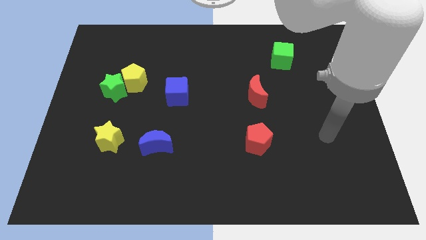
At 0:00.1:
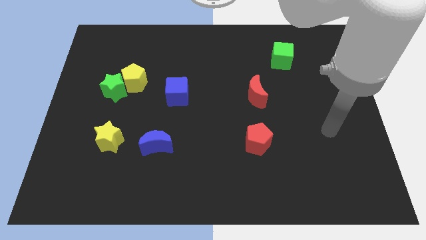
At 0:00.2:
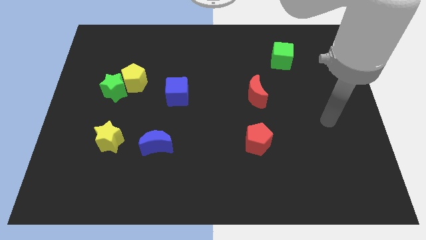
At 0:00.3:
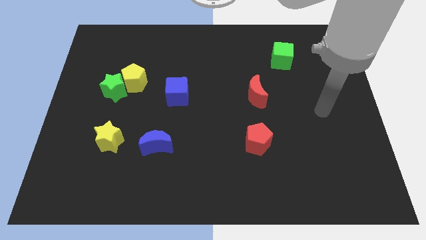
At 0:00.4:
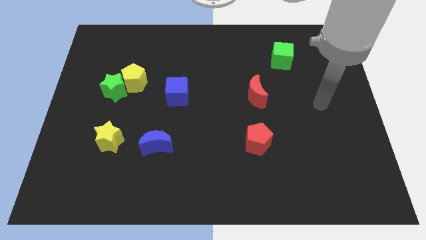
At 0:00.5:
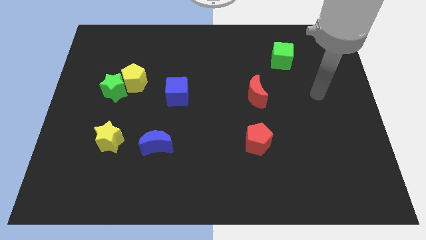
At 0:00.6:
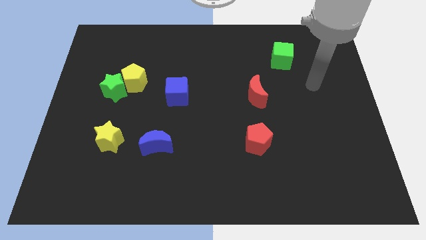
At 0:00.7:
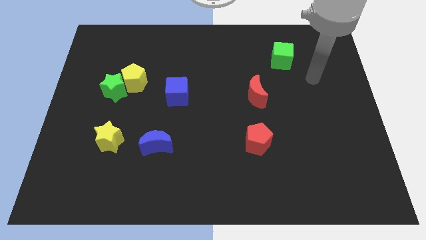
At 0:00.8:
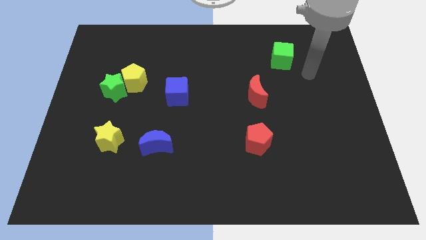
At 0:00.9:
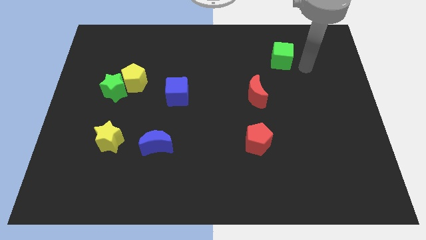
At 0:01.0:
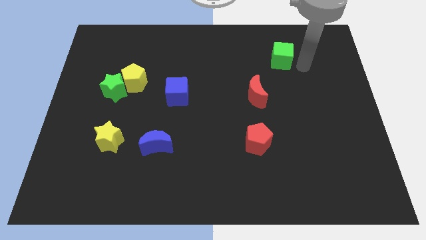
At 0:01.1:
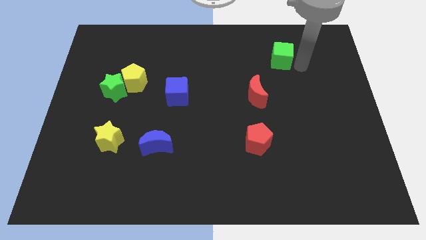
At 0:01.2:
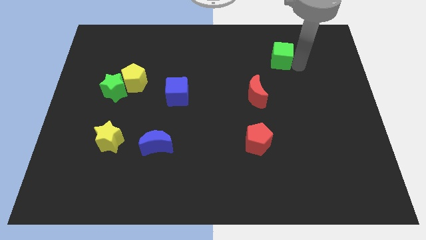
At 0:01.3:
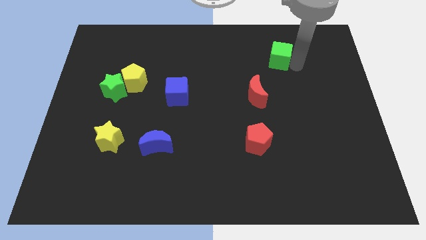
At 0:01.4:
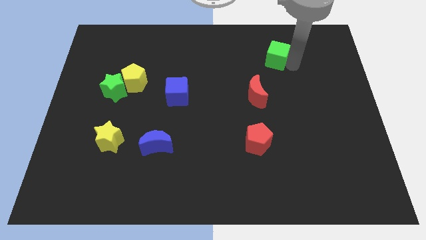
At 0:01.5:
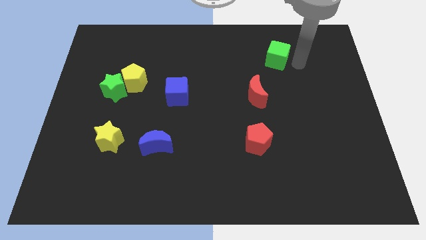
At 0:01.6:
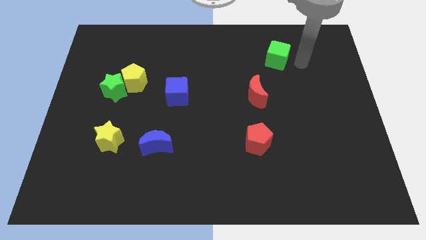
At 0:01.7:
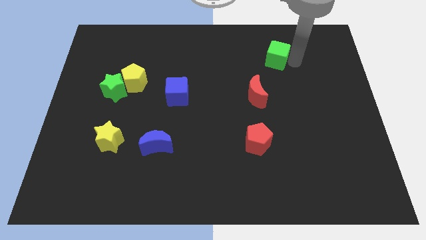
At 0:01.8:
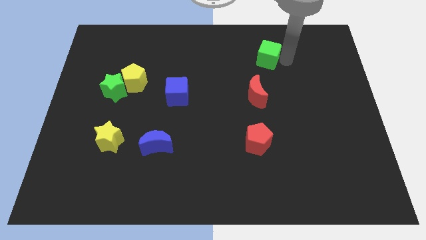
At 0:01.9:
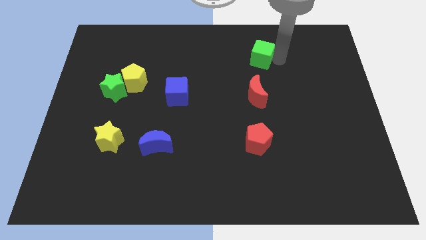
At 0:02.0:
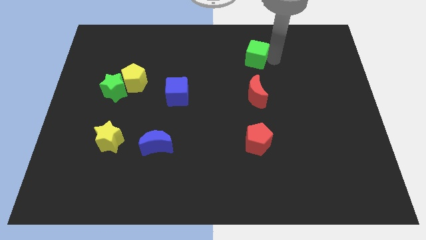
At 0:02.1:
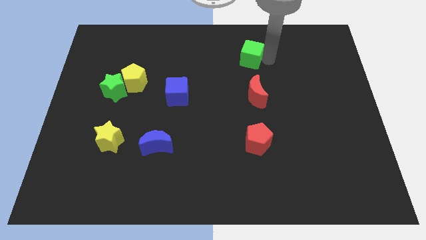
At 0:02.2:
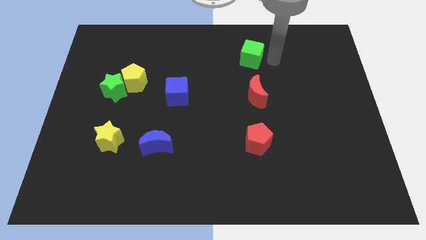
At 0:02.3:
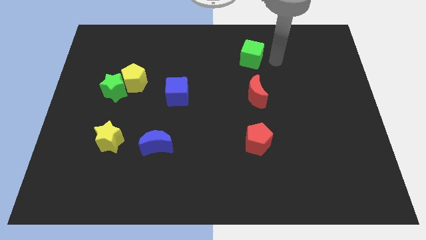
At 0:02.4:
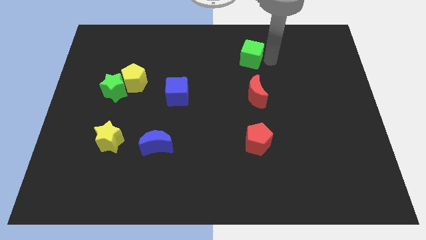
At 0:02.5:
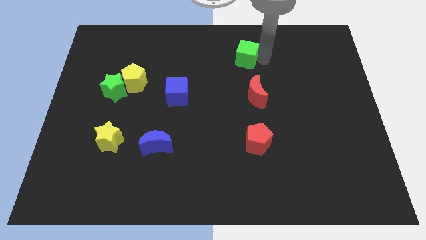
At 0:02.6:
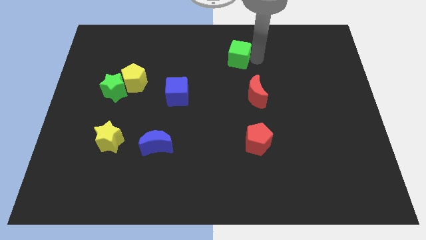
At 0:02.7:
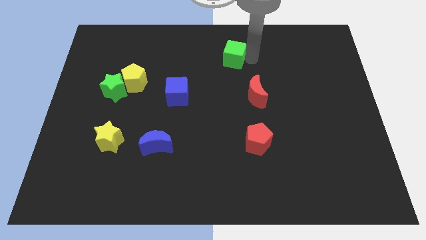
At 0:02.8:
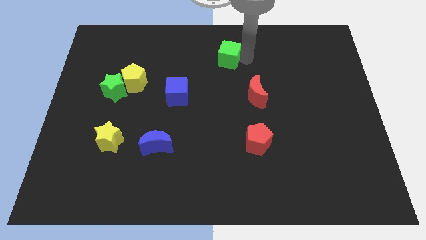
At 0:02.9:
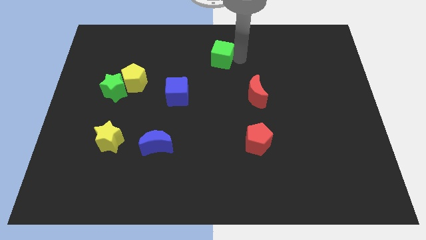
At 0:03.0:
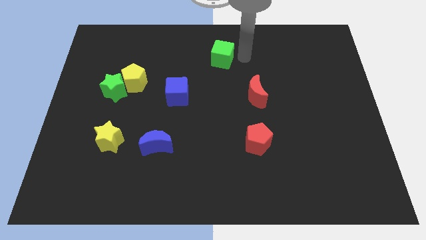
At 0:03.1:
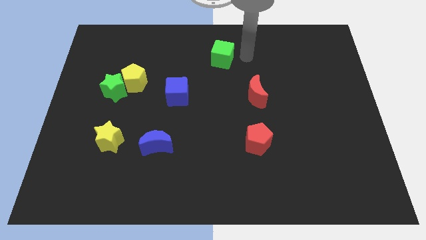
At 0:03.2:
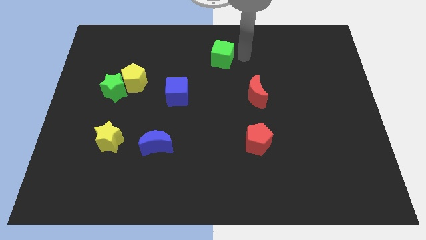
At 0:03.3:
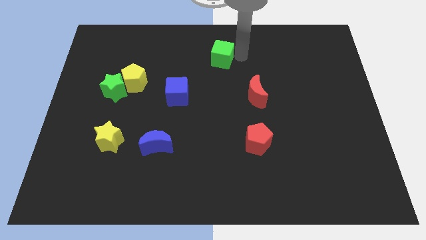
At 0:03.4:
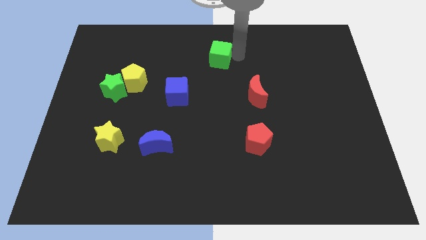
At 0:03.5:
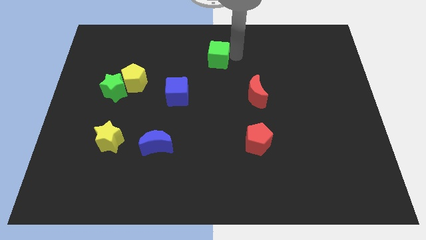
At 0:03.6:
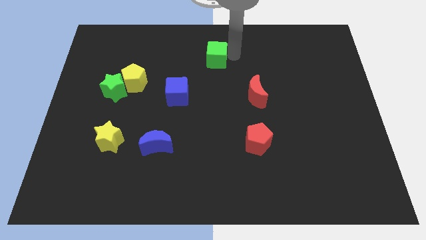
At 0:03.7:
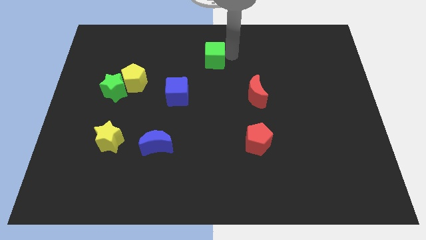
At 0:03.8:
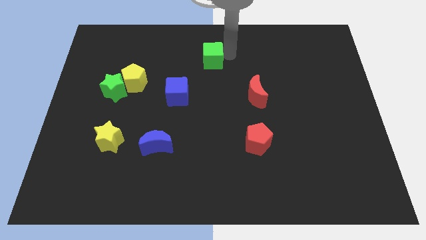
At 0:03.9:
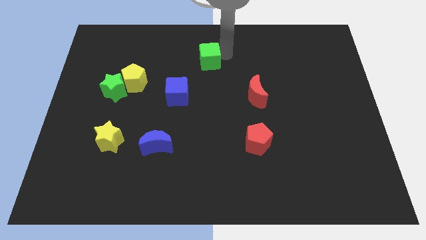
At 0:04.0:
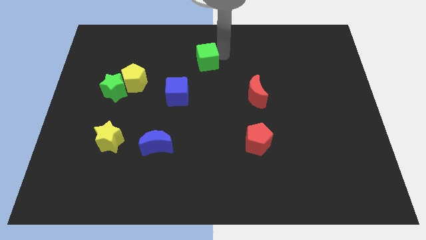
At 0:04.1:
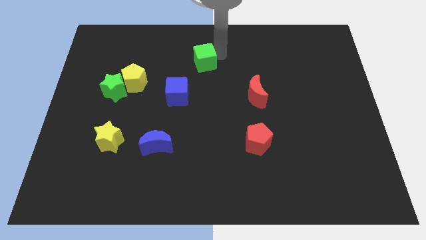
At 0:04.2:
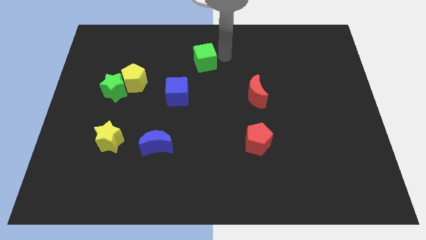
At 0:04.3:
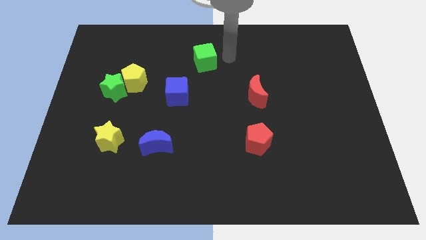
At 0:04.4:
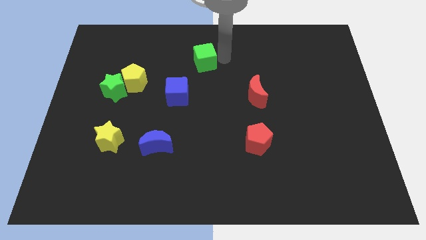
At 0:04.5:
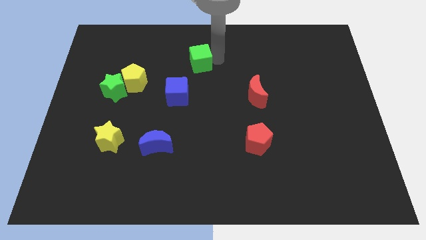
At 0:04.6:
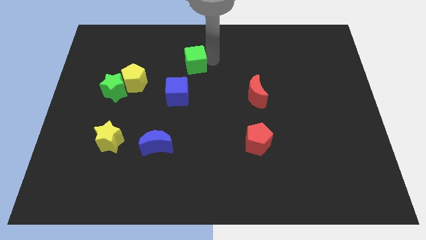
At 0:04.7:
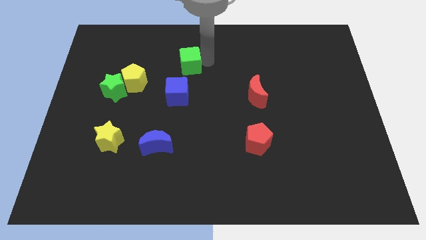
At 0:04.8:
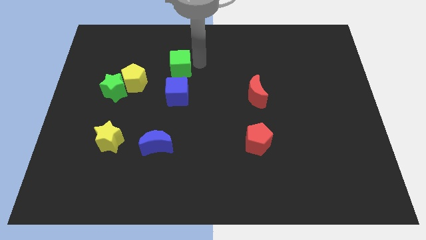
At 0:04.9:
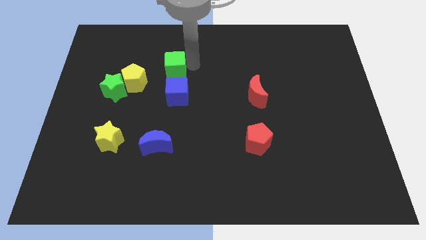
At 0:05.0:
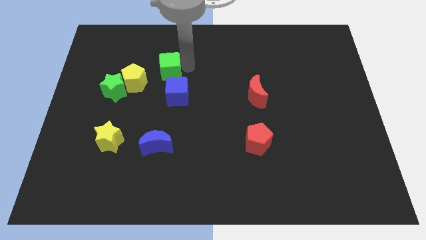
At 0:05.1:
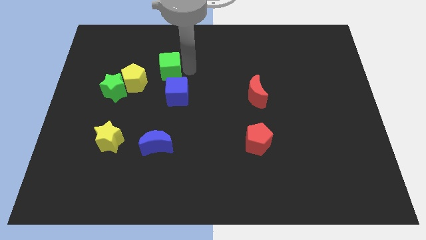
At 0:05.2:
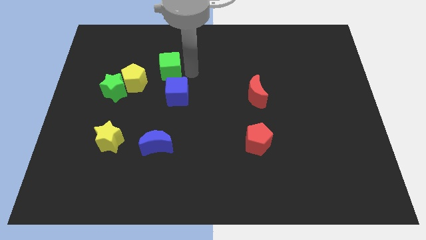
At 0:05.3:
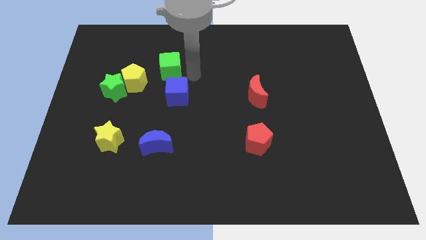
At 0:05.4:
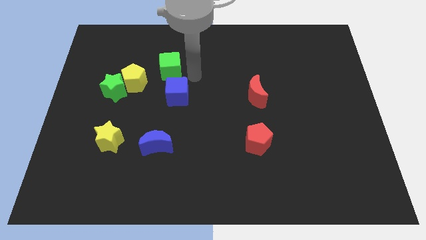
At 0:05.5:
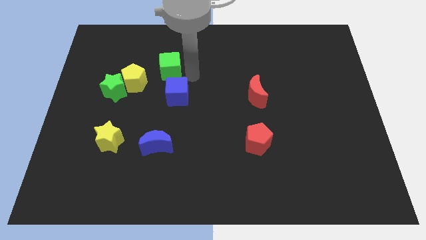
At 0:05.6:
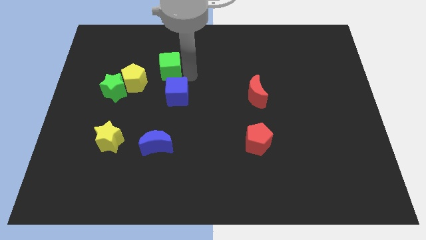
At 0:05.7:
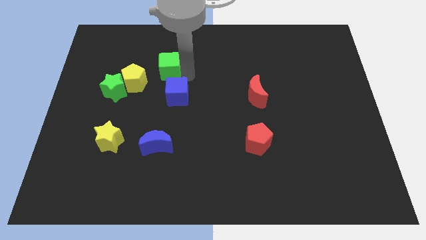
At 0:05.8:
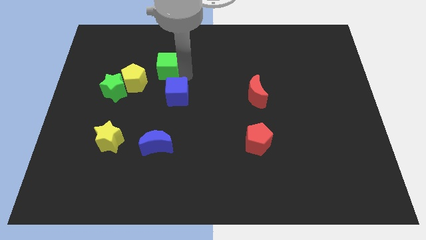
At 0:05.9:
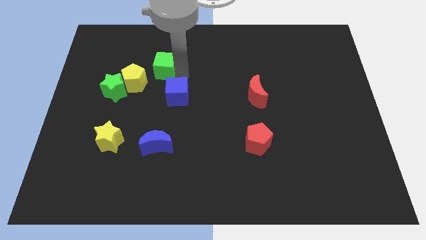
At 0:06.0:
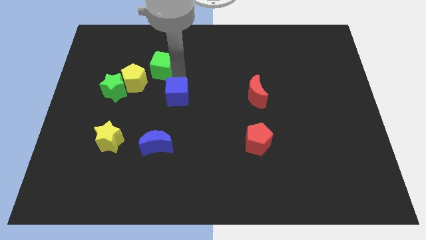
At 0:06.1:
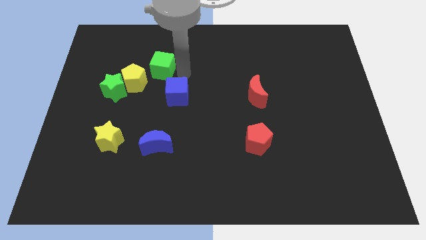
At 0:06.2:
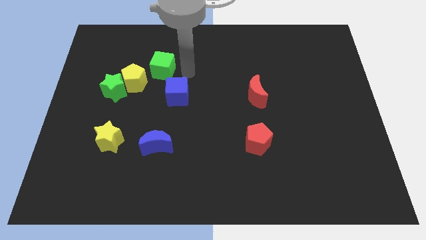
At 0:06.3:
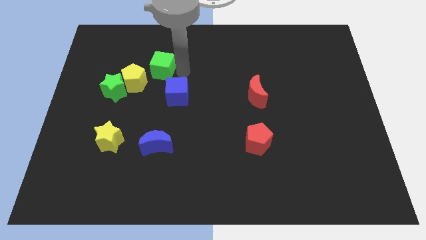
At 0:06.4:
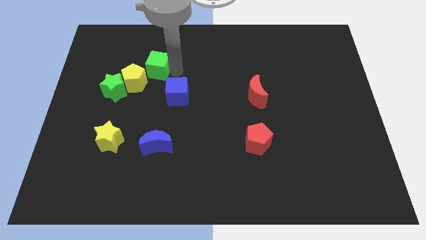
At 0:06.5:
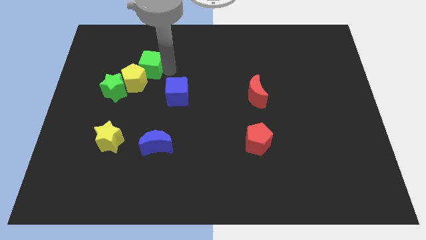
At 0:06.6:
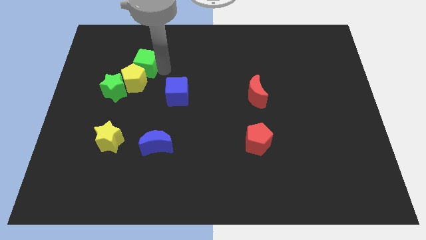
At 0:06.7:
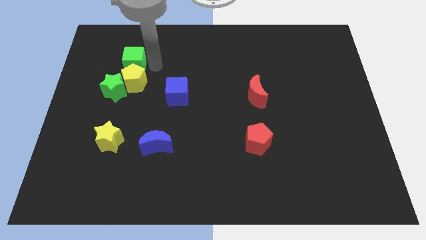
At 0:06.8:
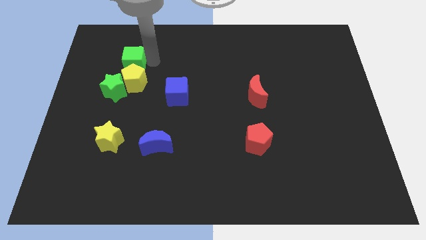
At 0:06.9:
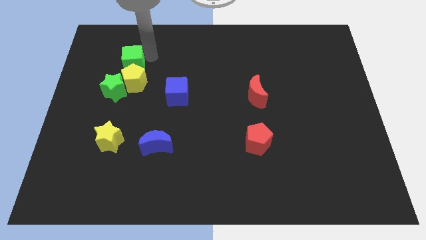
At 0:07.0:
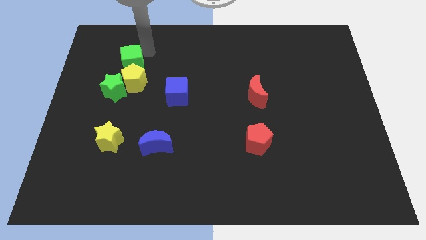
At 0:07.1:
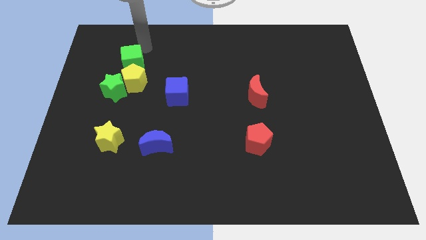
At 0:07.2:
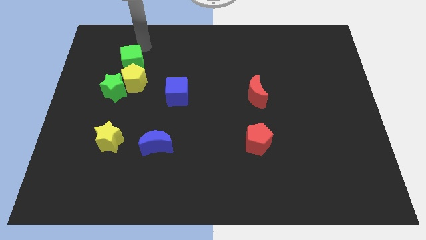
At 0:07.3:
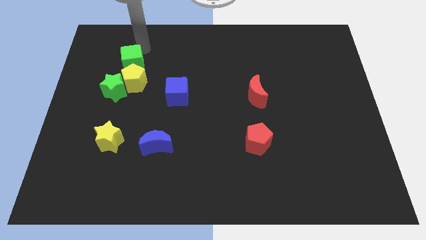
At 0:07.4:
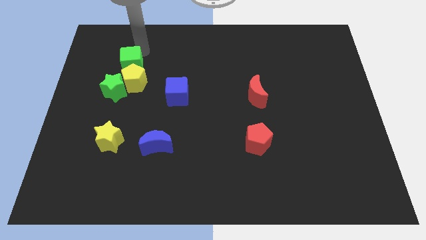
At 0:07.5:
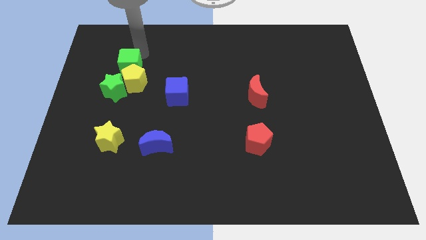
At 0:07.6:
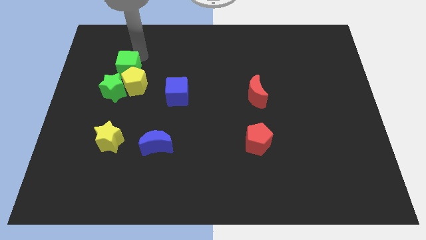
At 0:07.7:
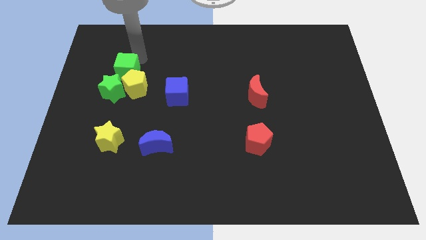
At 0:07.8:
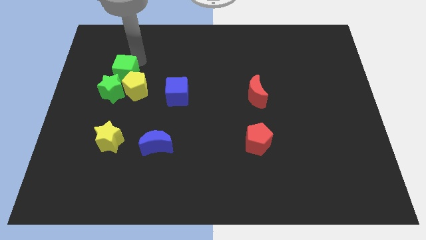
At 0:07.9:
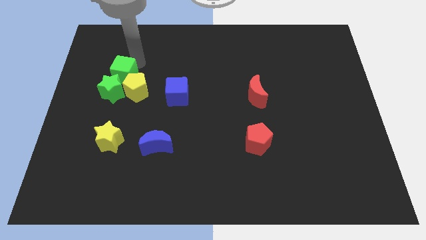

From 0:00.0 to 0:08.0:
push the green cube towards the green star
